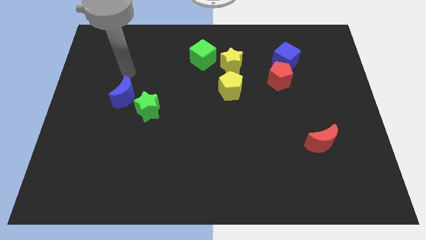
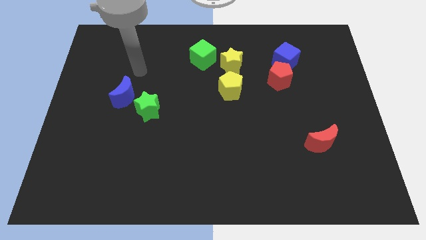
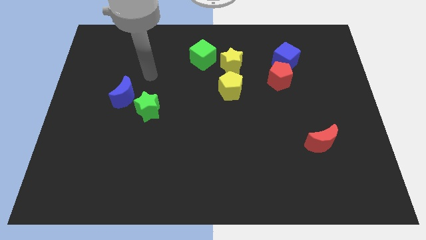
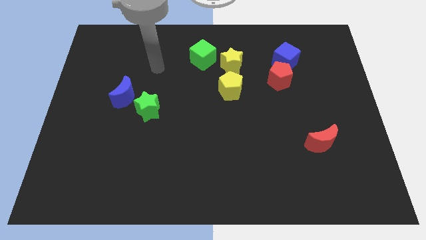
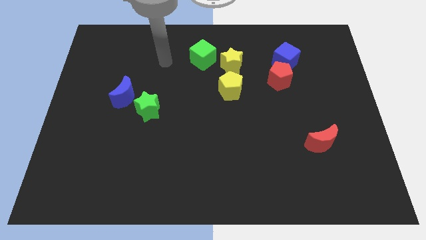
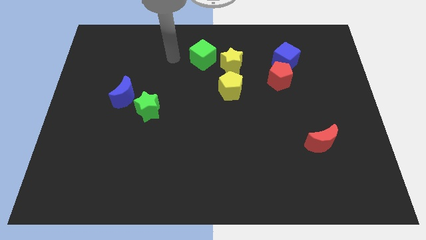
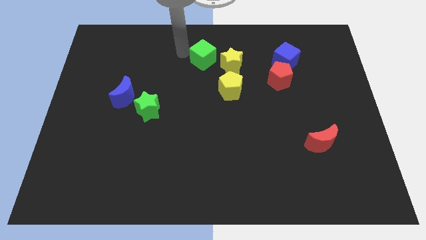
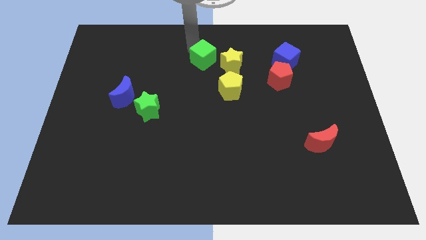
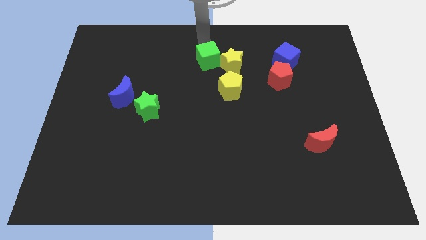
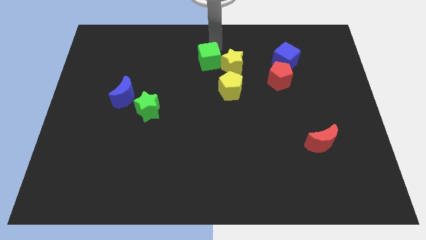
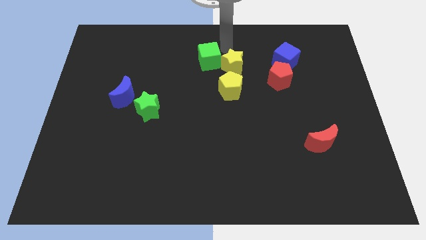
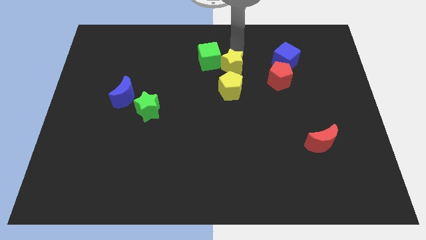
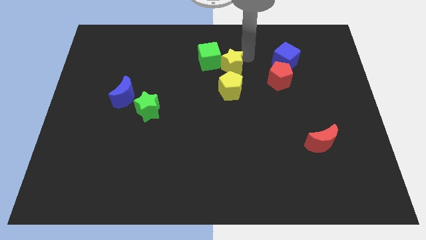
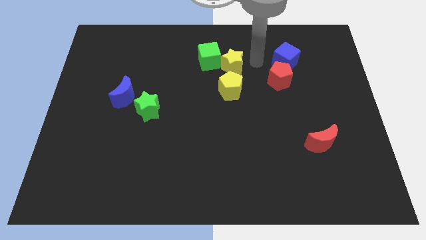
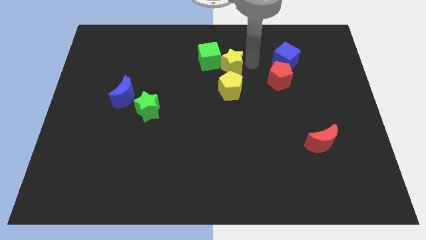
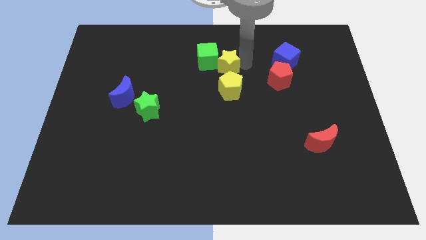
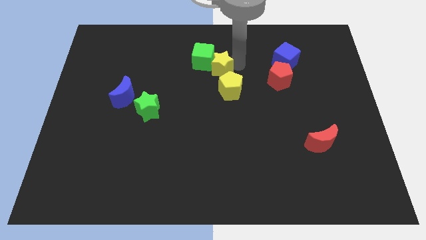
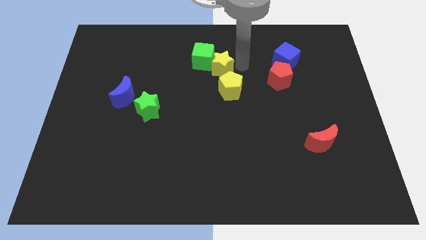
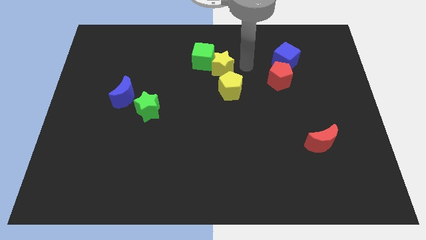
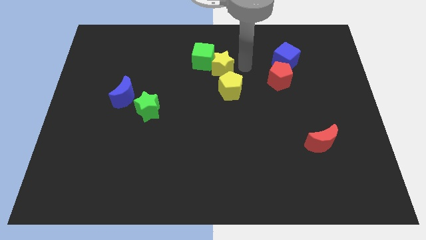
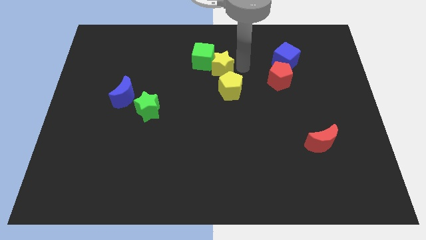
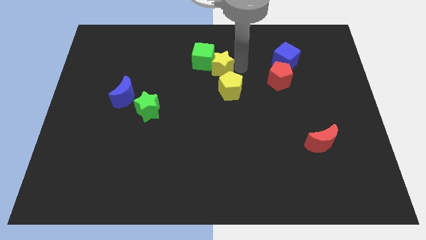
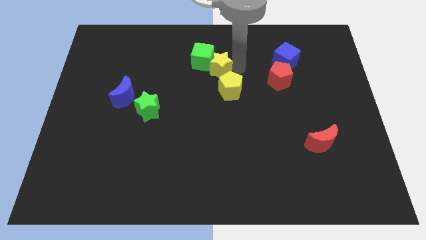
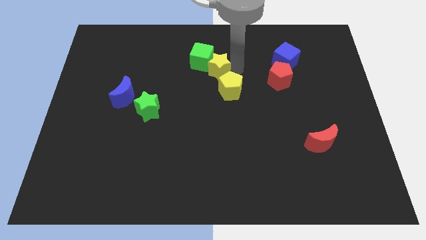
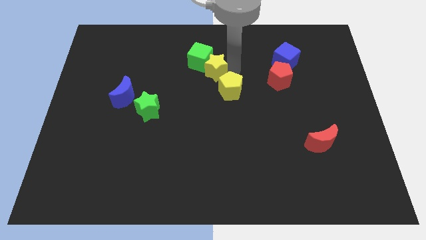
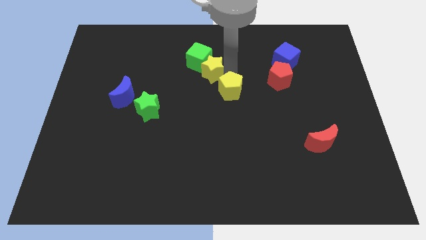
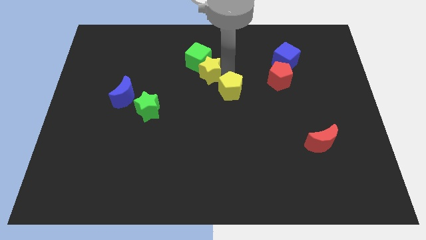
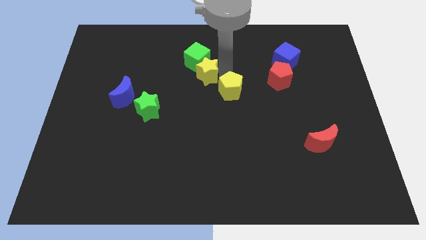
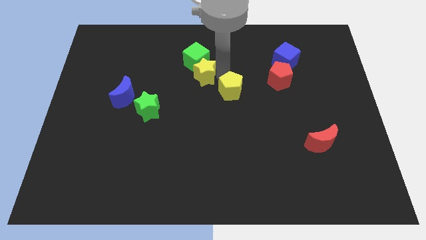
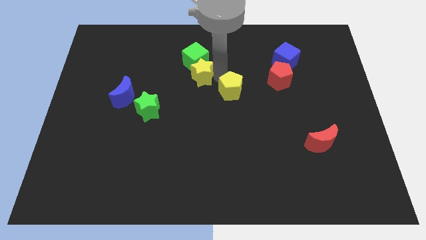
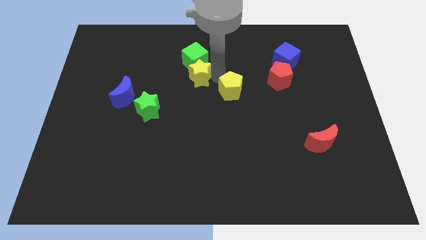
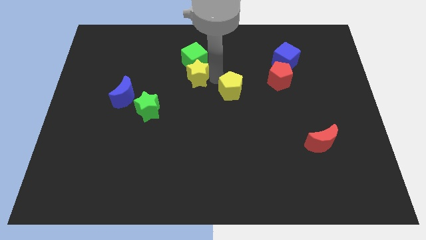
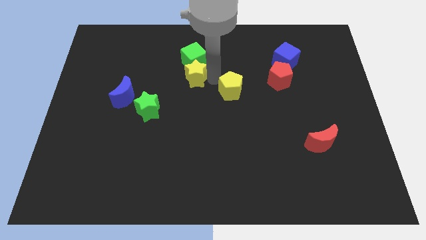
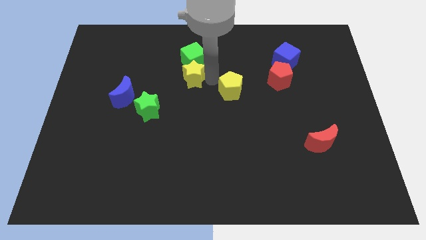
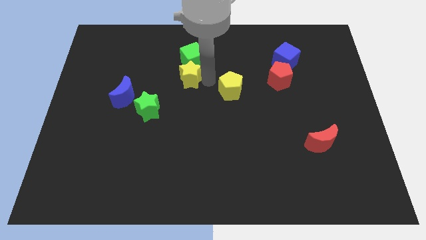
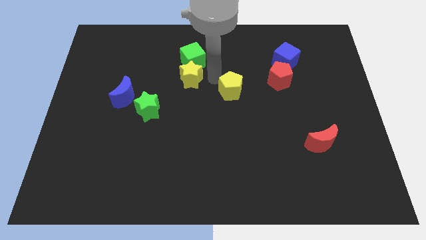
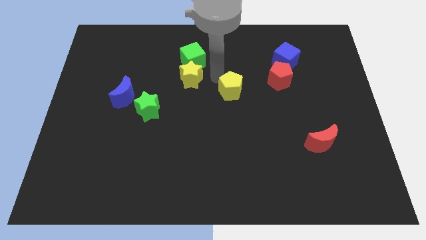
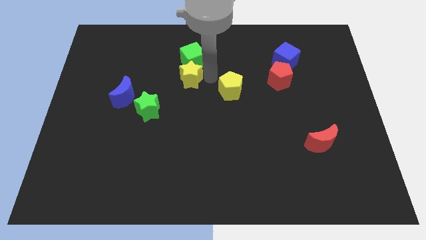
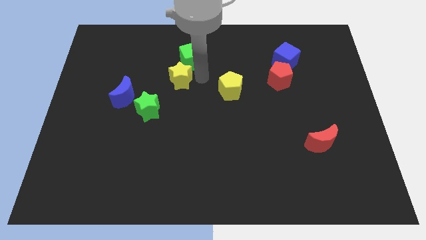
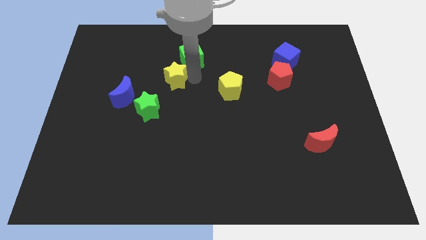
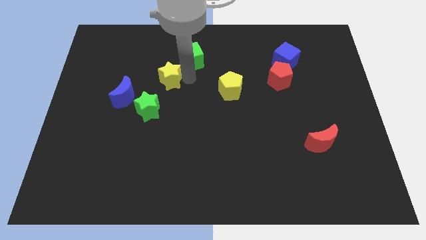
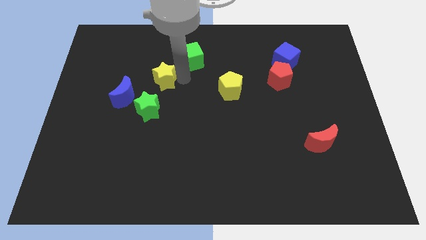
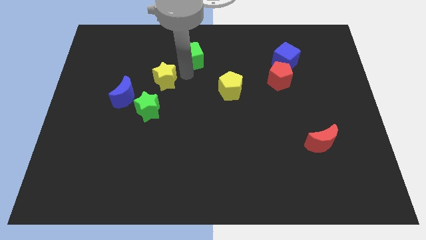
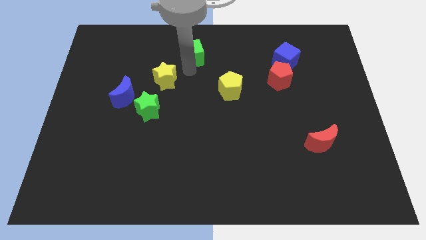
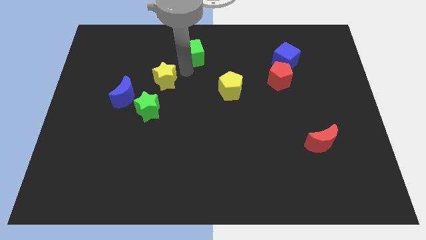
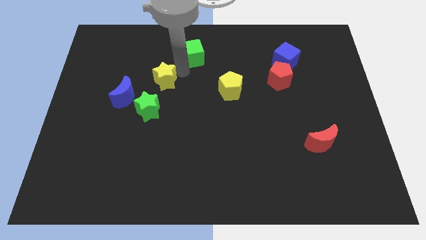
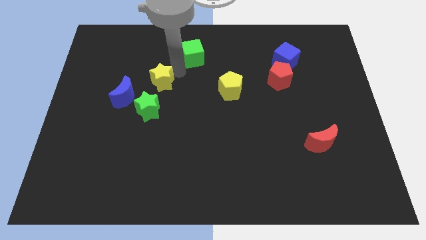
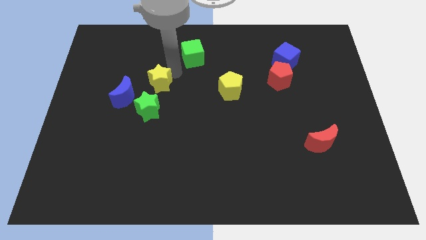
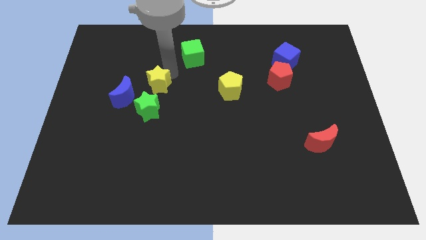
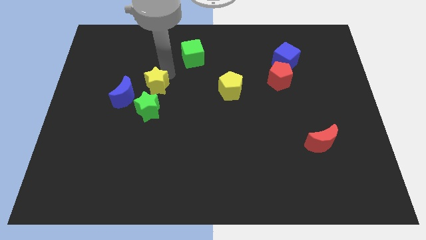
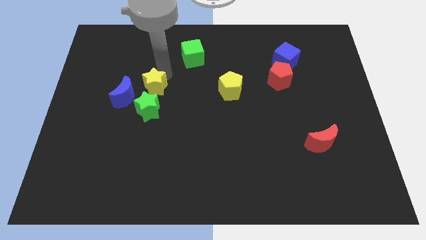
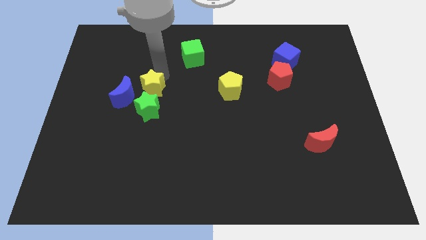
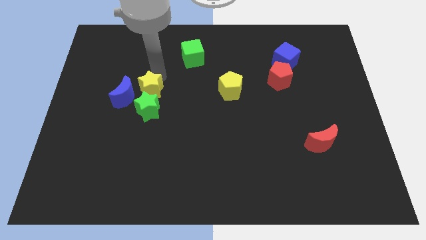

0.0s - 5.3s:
put the yellow star to the top left of the green star

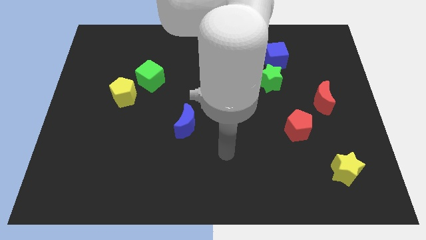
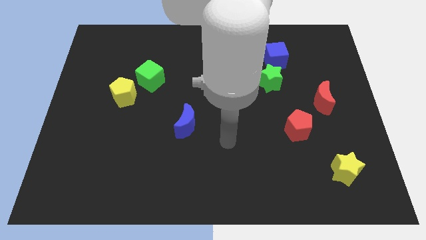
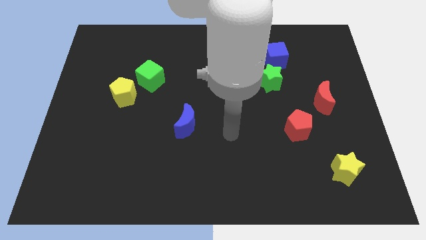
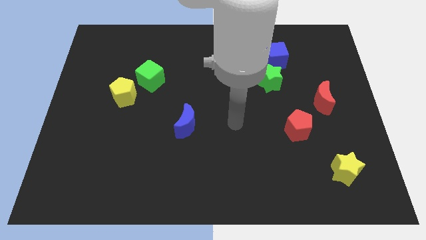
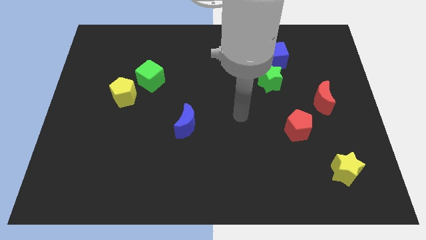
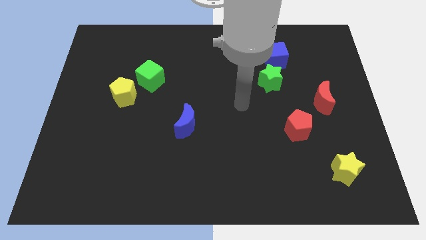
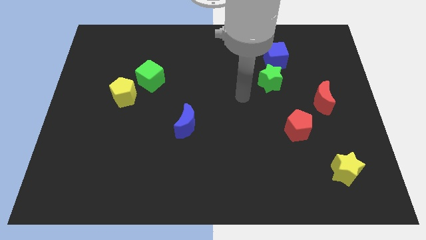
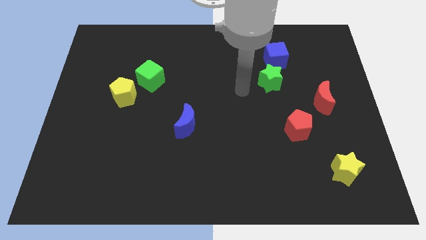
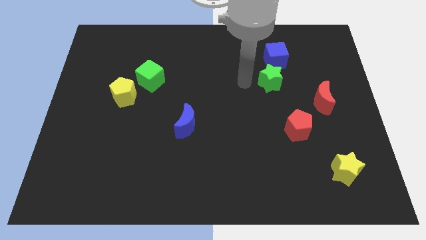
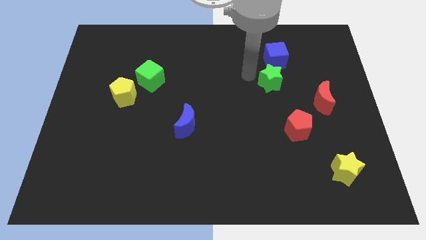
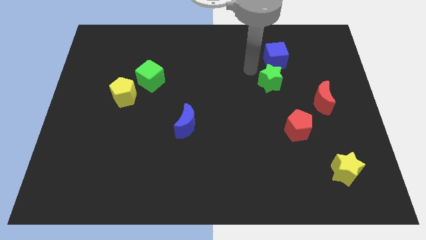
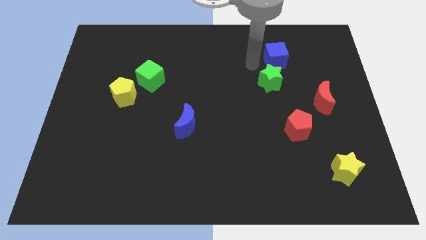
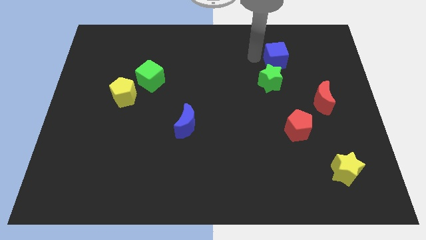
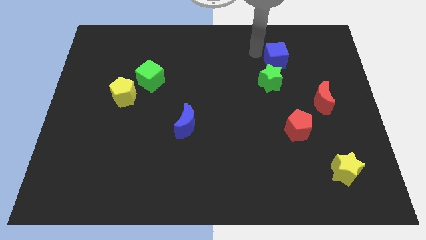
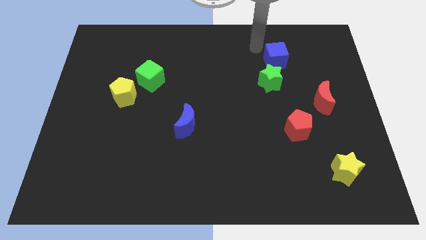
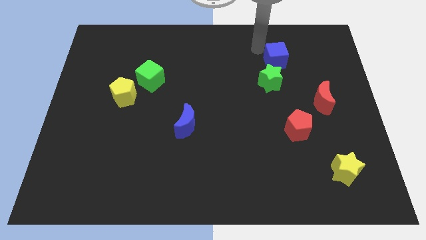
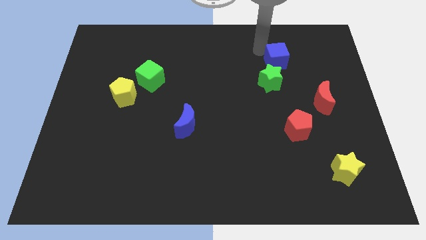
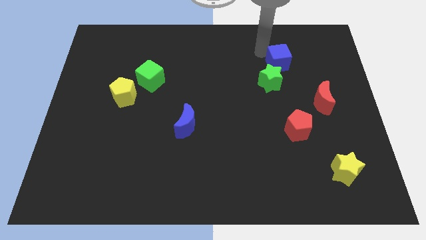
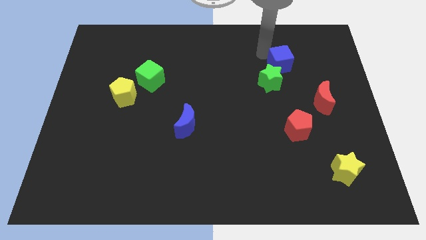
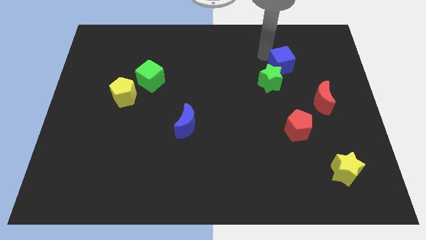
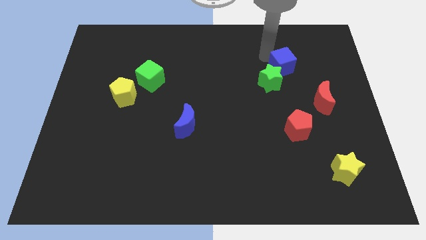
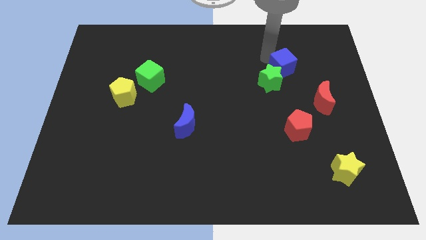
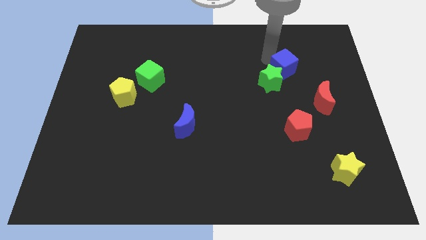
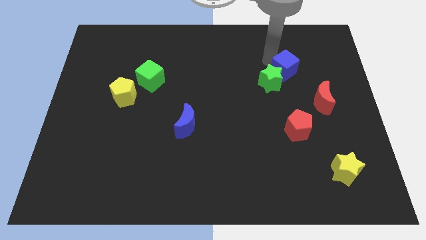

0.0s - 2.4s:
move the blue cube right of the green star

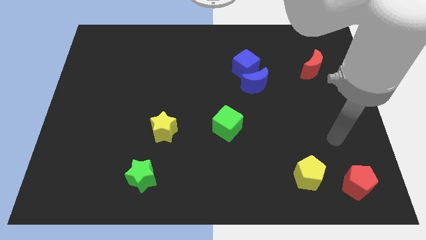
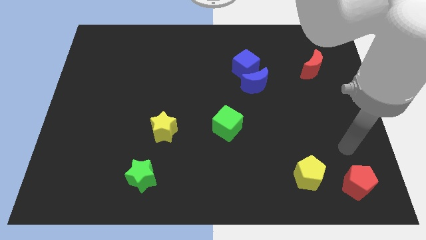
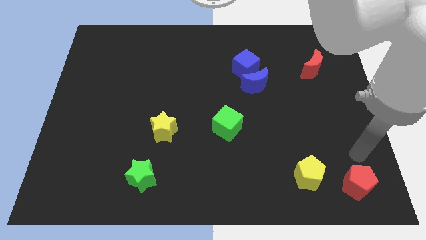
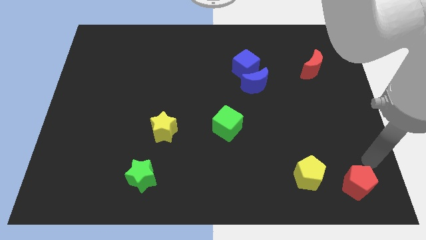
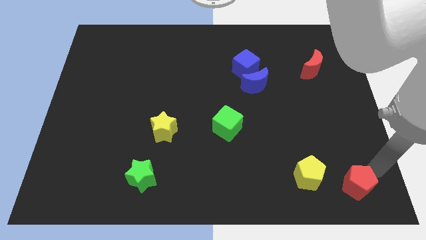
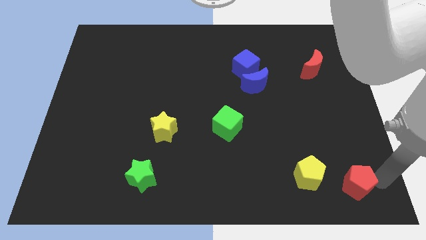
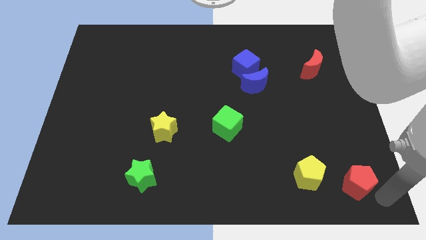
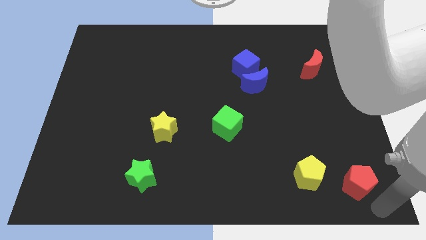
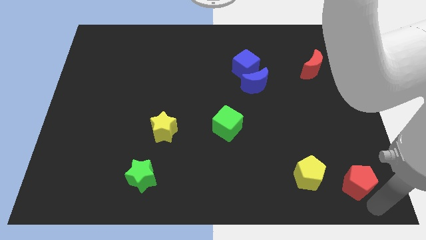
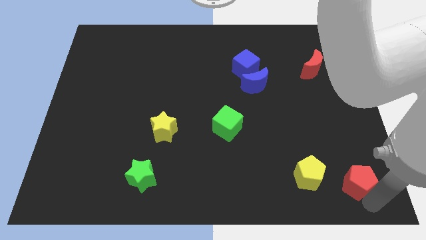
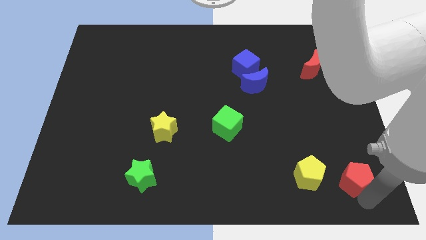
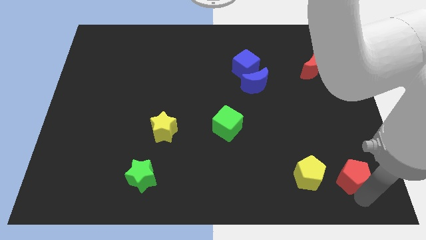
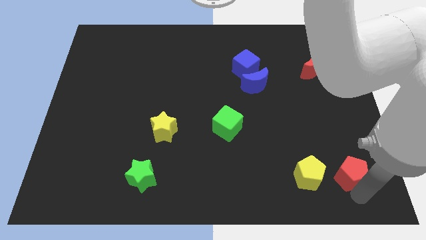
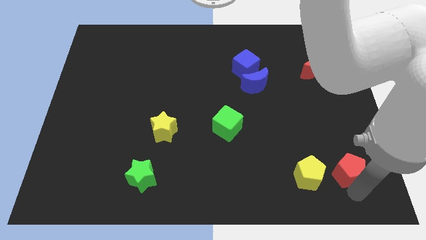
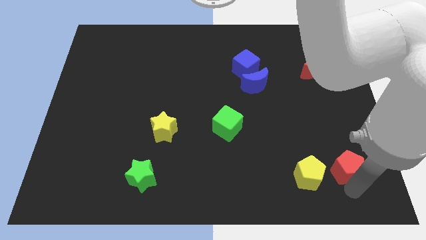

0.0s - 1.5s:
slide the red pentagon diagonally up and to the right of the yellow pentagon
